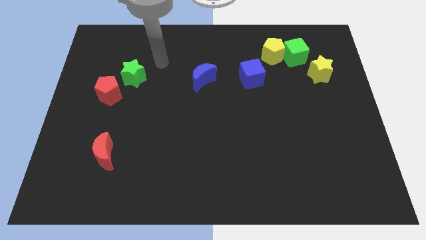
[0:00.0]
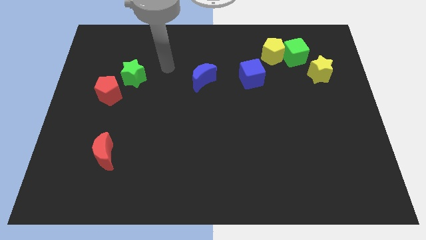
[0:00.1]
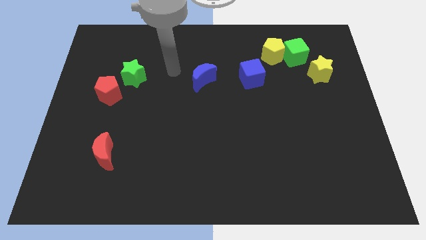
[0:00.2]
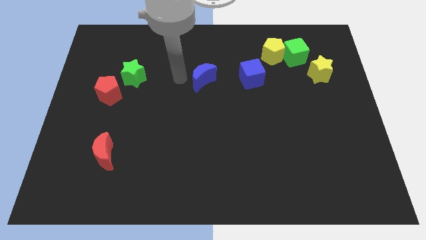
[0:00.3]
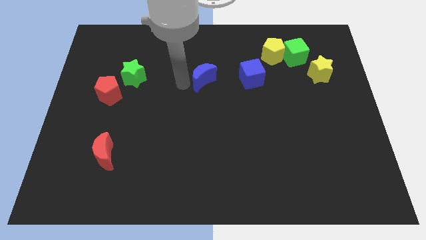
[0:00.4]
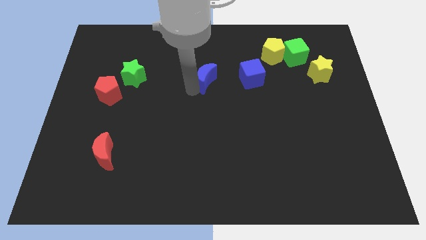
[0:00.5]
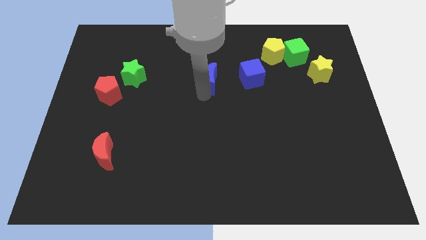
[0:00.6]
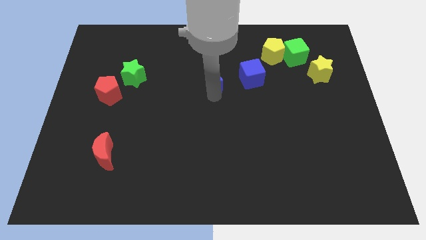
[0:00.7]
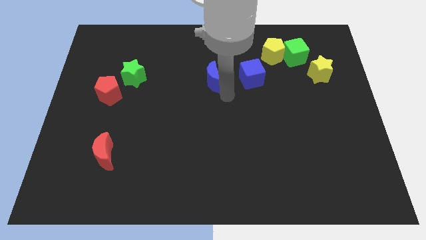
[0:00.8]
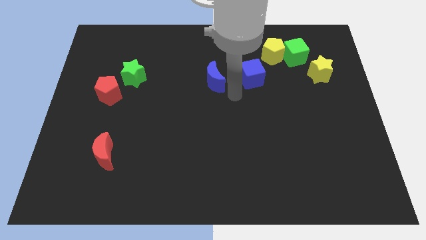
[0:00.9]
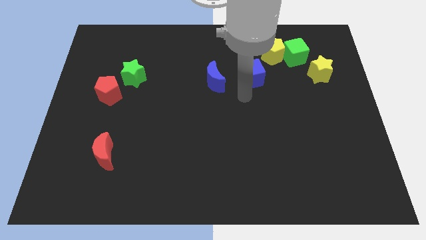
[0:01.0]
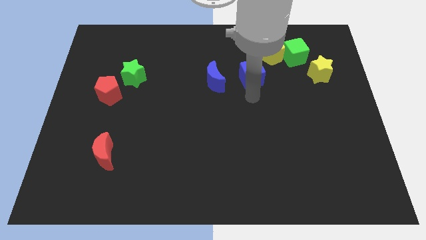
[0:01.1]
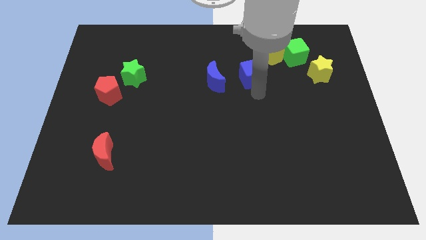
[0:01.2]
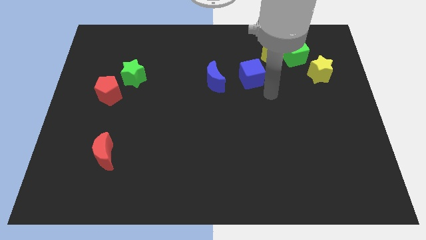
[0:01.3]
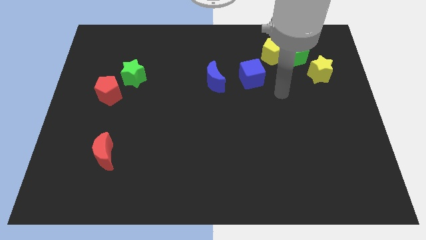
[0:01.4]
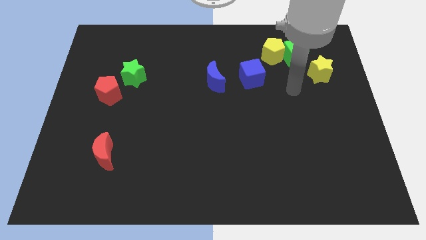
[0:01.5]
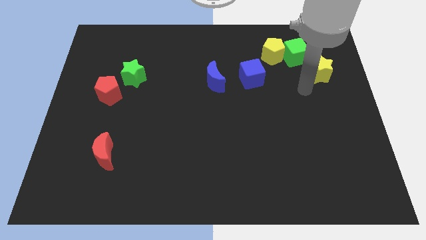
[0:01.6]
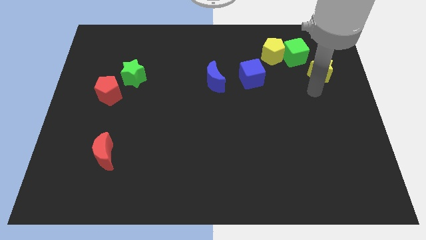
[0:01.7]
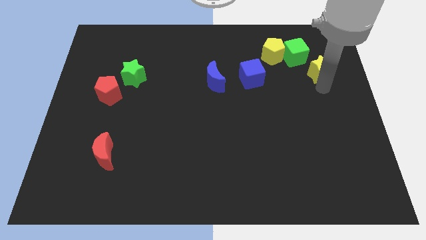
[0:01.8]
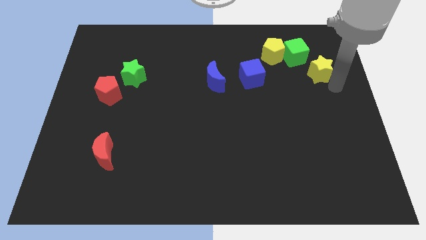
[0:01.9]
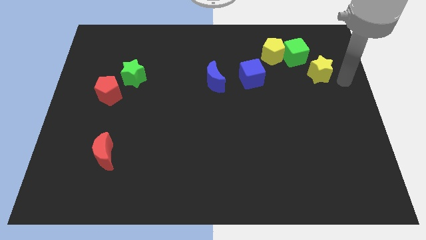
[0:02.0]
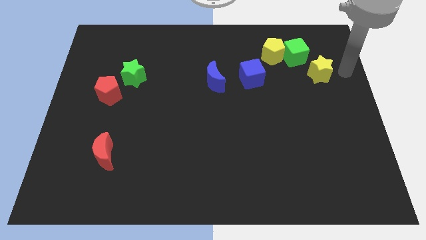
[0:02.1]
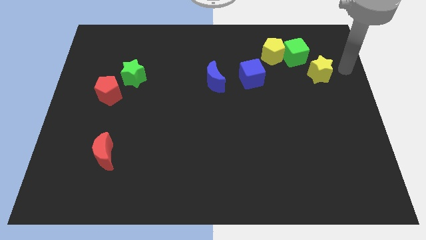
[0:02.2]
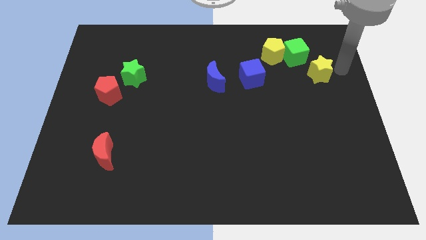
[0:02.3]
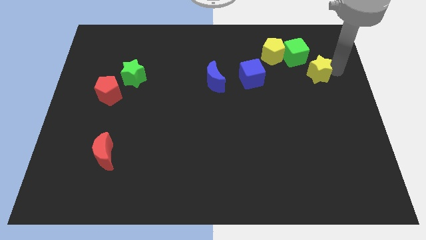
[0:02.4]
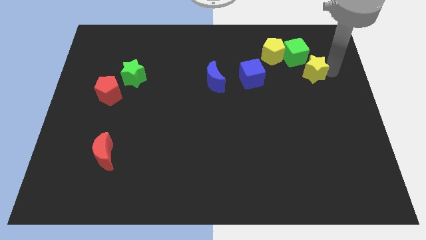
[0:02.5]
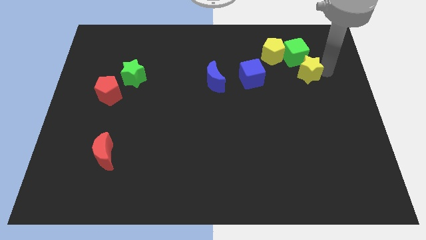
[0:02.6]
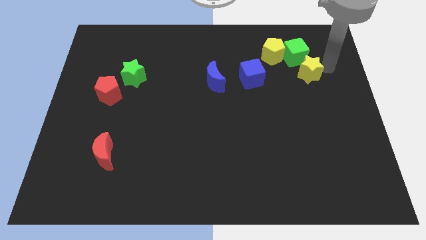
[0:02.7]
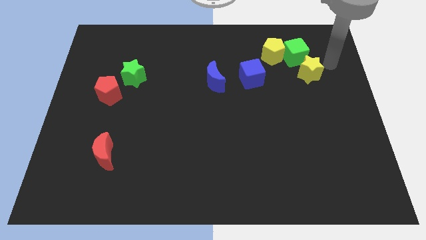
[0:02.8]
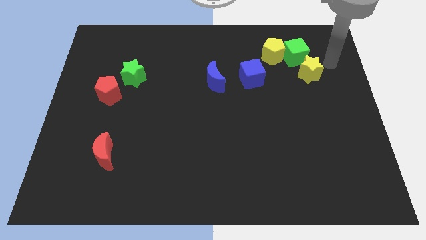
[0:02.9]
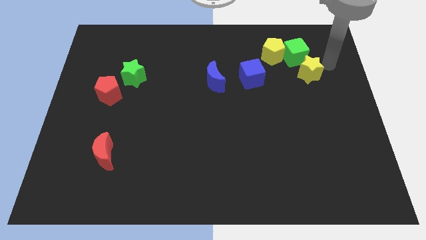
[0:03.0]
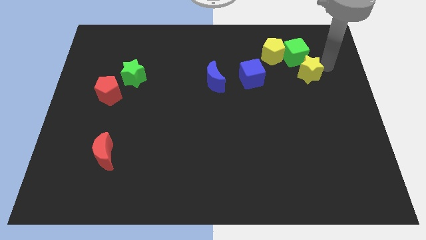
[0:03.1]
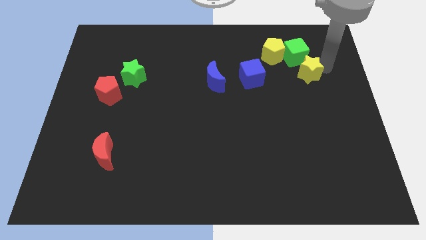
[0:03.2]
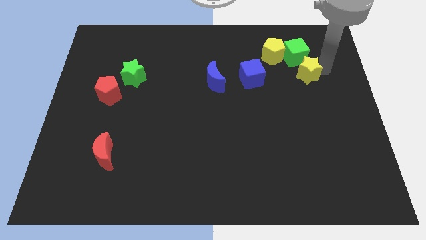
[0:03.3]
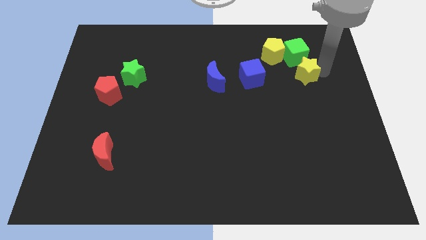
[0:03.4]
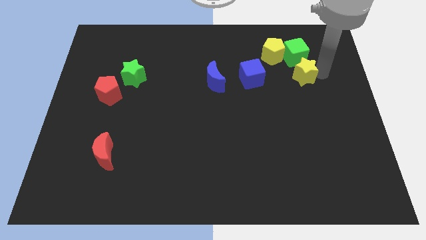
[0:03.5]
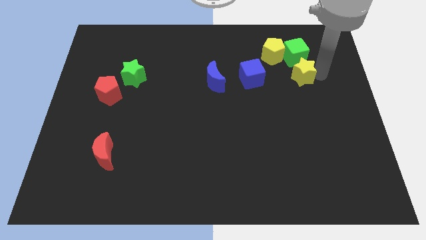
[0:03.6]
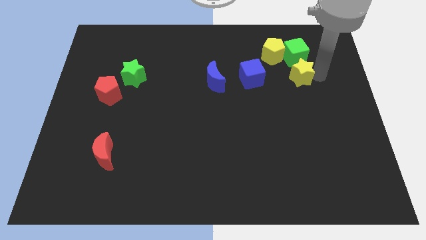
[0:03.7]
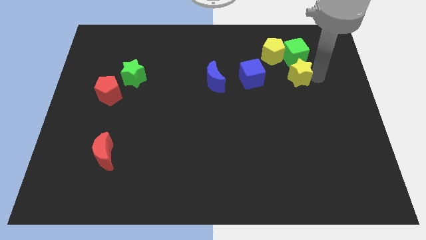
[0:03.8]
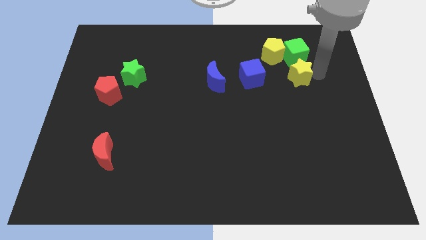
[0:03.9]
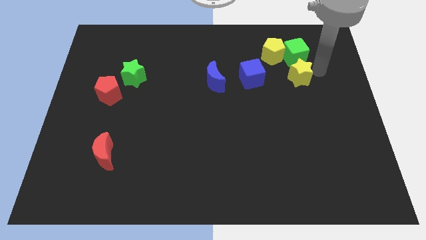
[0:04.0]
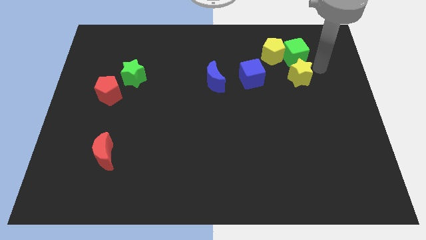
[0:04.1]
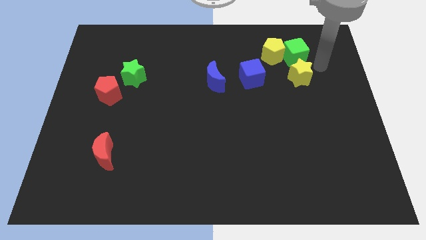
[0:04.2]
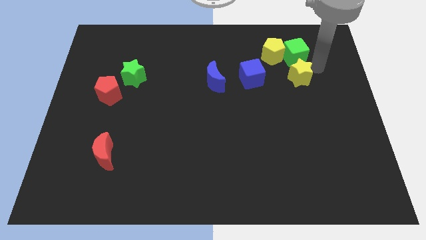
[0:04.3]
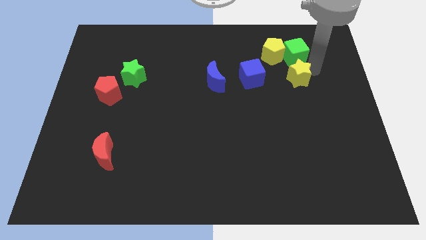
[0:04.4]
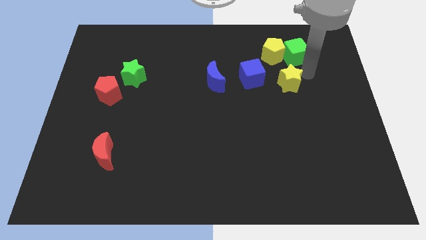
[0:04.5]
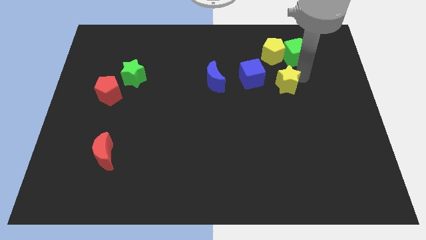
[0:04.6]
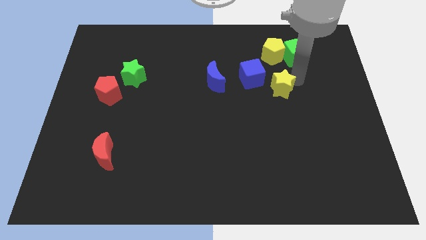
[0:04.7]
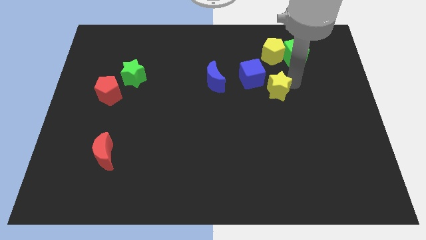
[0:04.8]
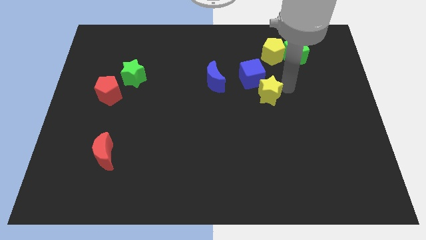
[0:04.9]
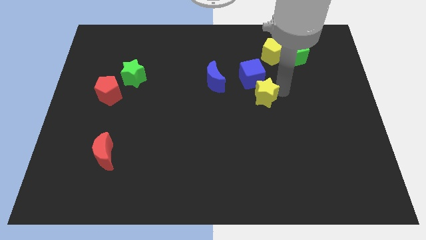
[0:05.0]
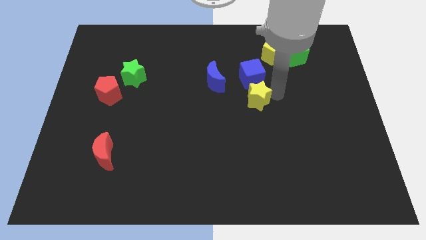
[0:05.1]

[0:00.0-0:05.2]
slide the yellow star diagonally down and to the right of the blue moon

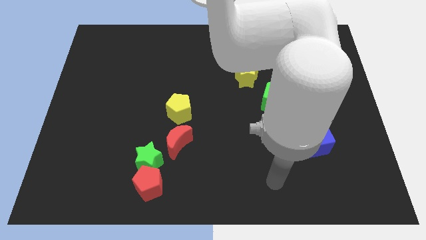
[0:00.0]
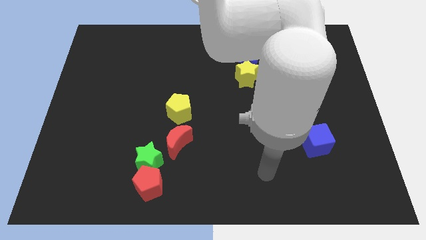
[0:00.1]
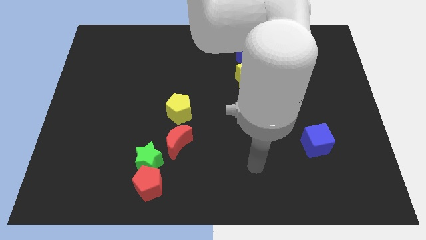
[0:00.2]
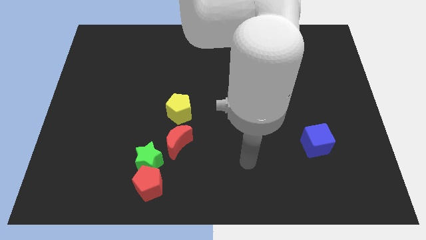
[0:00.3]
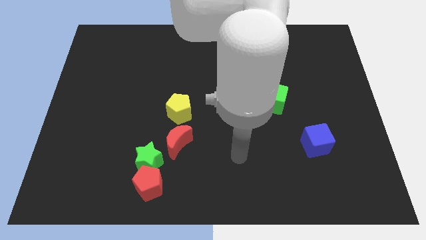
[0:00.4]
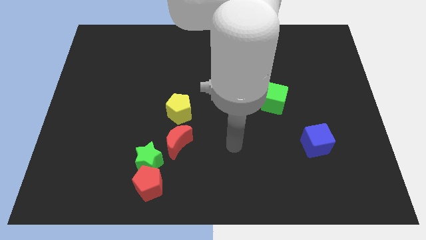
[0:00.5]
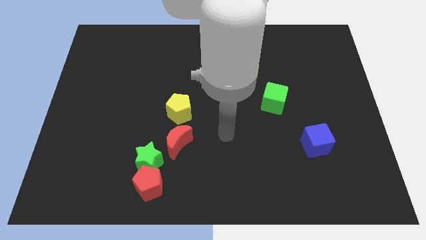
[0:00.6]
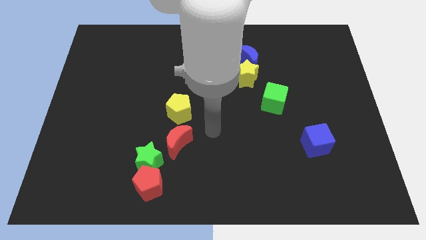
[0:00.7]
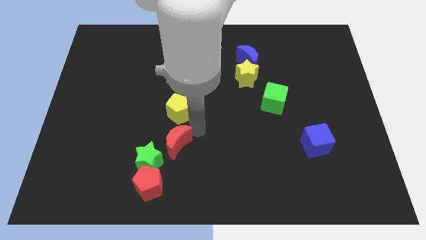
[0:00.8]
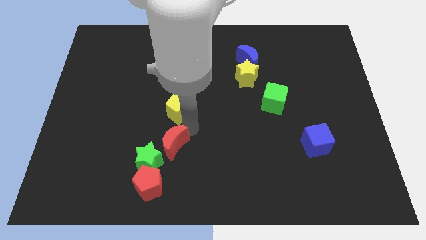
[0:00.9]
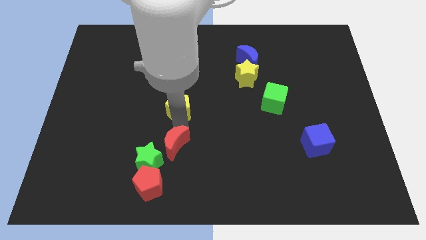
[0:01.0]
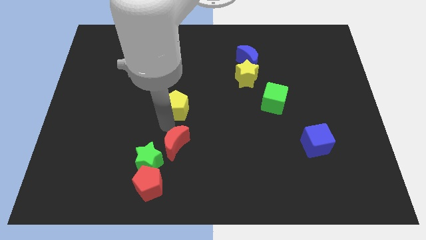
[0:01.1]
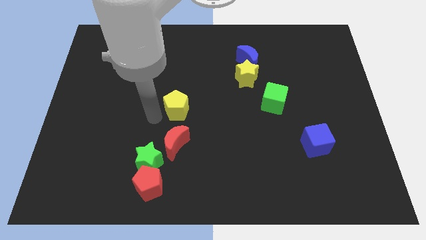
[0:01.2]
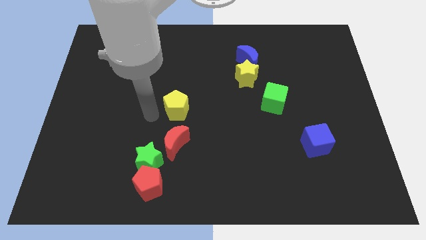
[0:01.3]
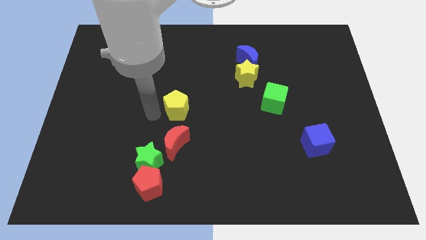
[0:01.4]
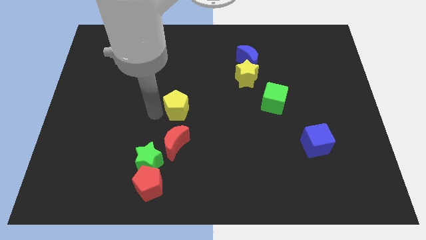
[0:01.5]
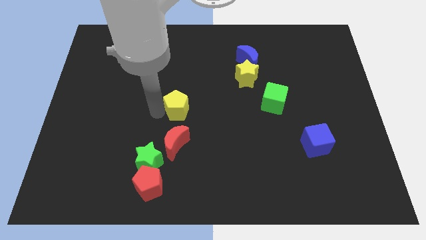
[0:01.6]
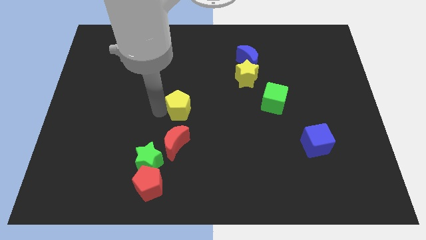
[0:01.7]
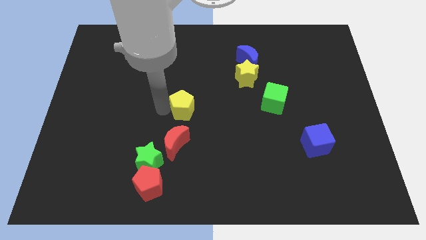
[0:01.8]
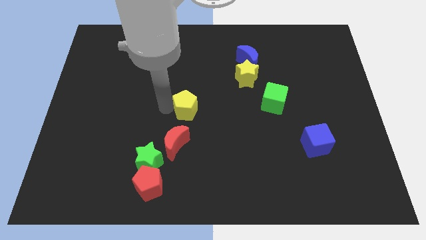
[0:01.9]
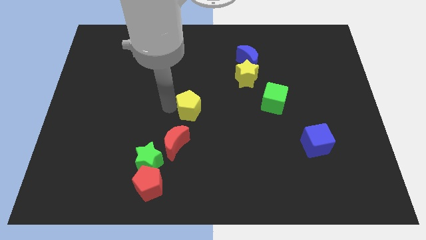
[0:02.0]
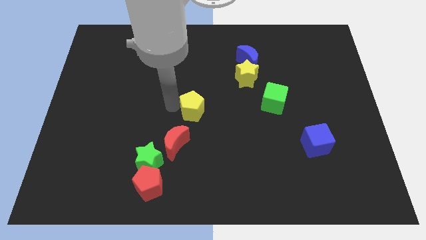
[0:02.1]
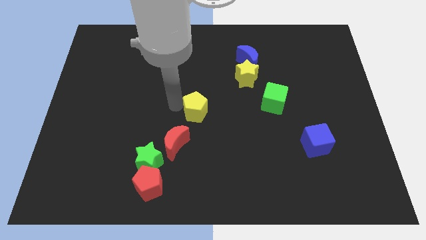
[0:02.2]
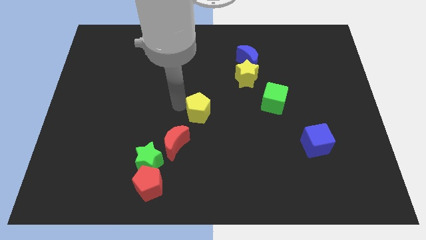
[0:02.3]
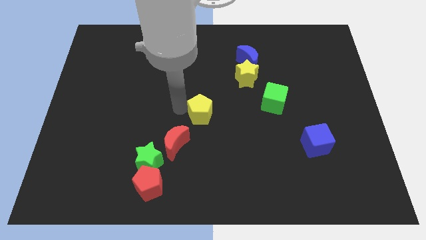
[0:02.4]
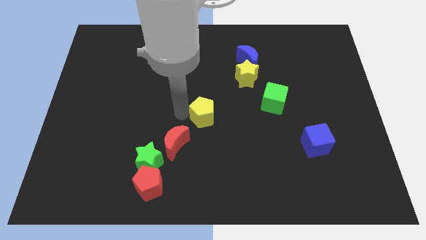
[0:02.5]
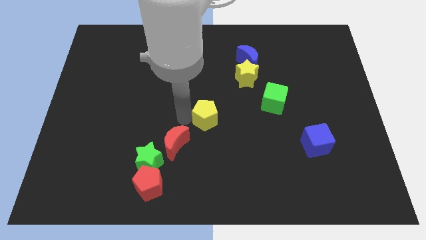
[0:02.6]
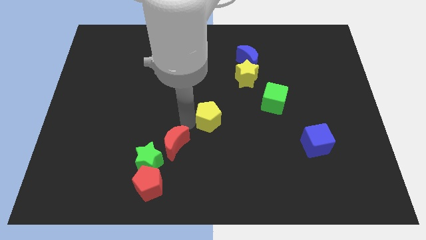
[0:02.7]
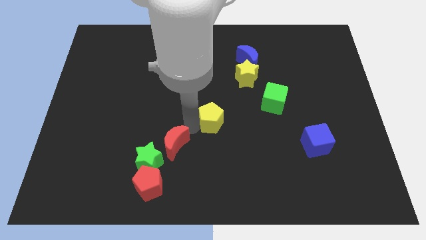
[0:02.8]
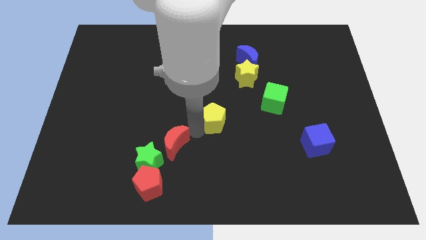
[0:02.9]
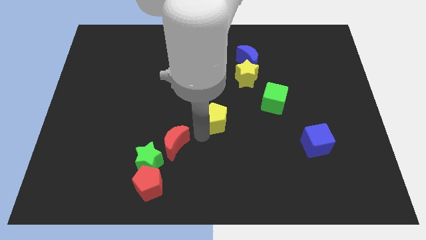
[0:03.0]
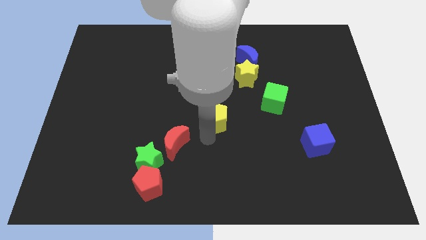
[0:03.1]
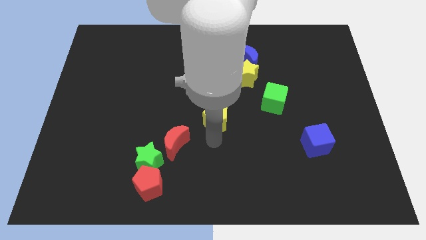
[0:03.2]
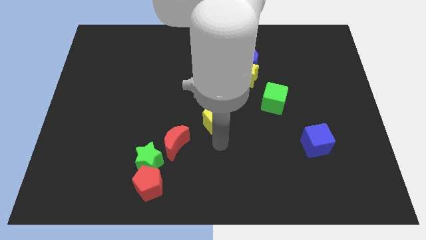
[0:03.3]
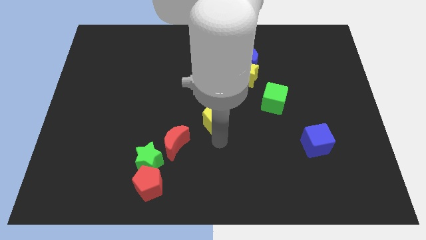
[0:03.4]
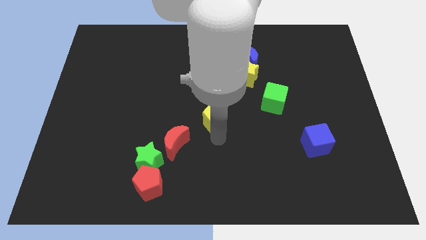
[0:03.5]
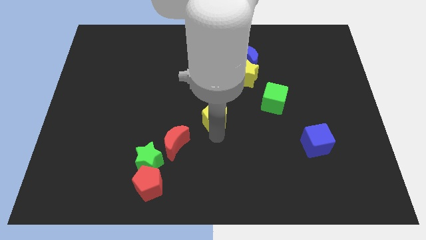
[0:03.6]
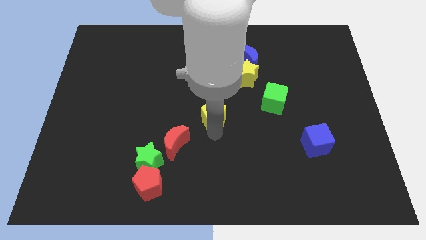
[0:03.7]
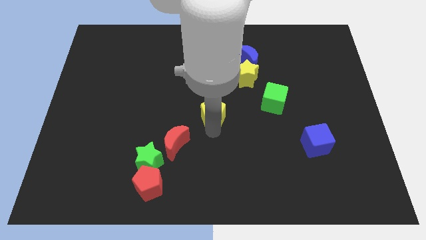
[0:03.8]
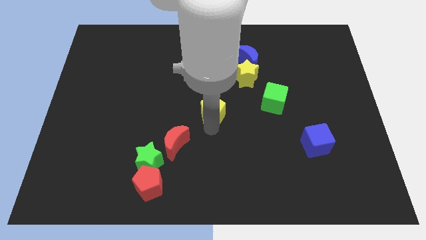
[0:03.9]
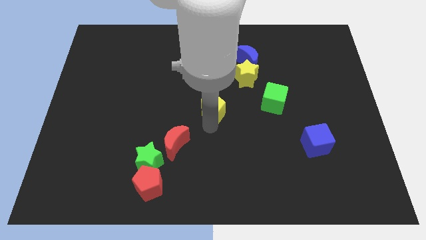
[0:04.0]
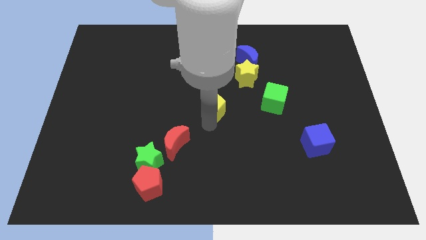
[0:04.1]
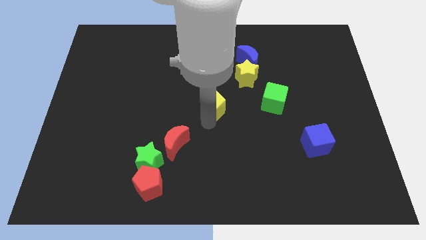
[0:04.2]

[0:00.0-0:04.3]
move the yellow pentagon to the bottom left of the yellow star
